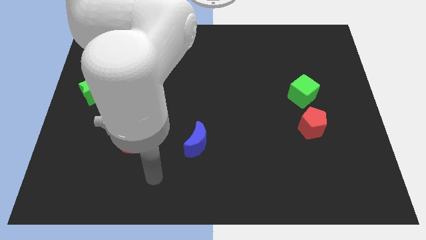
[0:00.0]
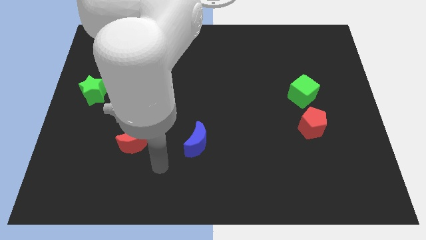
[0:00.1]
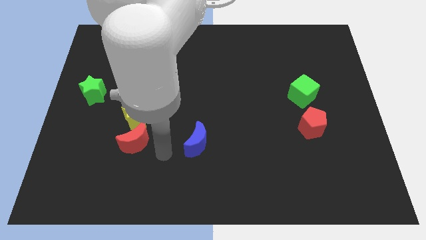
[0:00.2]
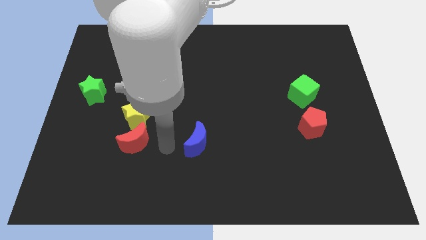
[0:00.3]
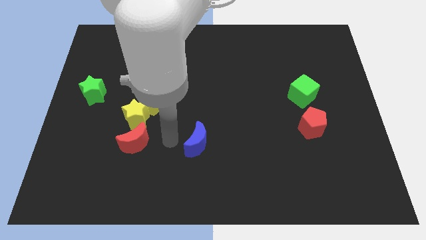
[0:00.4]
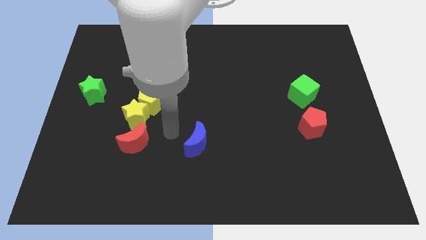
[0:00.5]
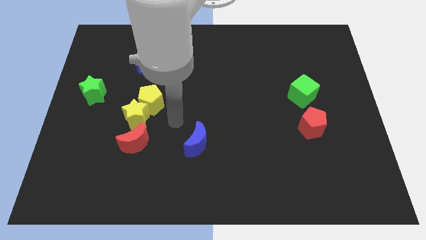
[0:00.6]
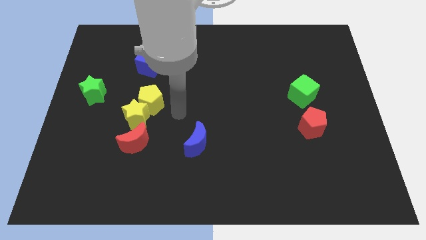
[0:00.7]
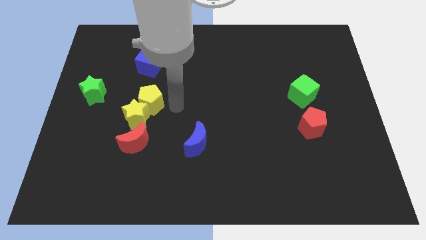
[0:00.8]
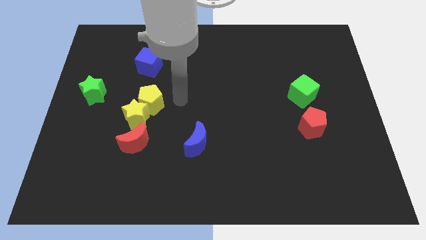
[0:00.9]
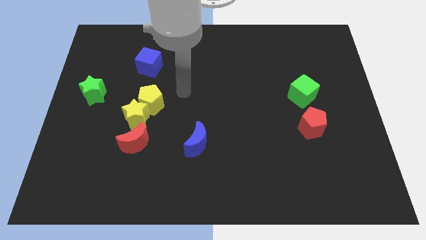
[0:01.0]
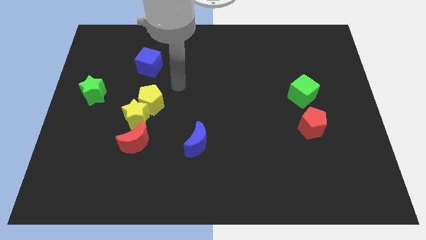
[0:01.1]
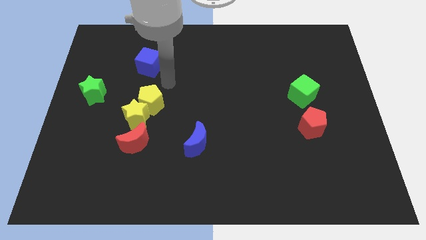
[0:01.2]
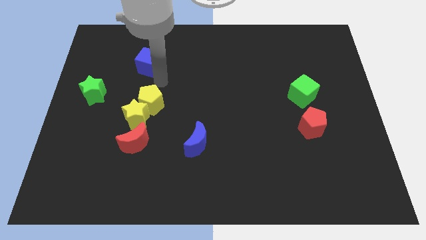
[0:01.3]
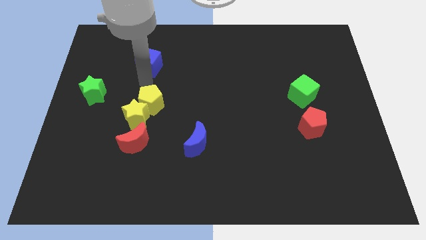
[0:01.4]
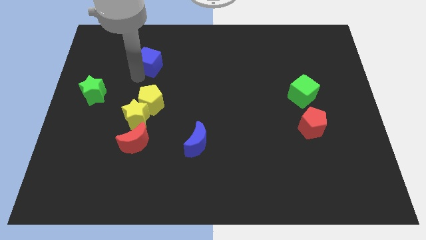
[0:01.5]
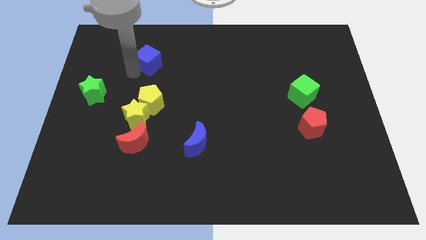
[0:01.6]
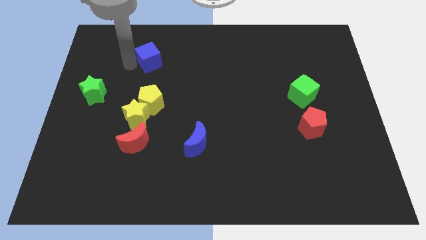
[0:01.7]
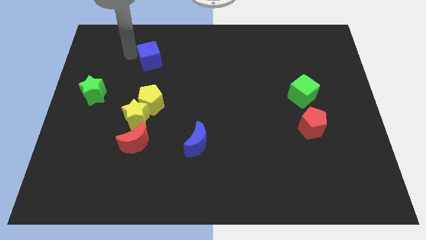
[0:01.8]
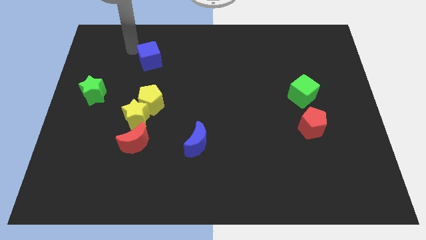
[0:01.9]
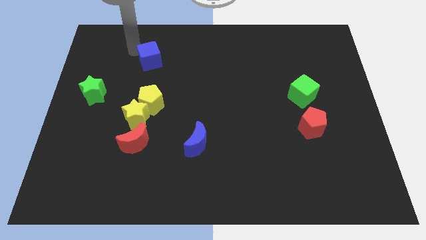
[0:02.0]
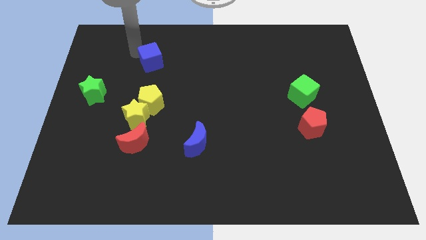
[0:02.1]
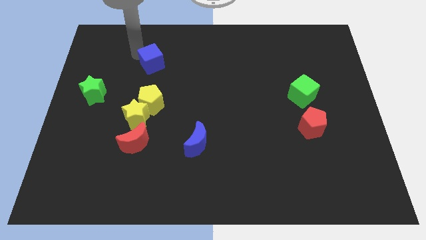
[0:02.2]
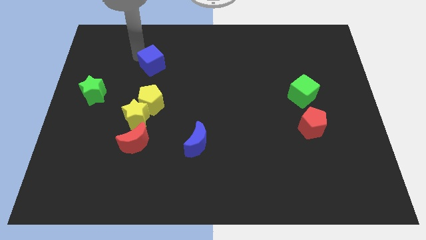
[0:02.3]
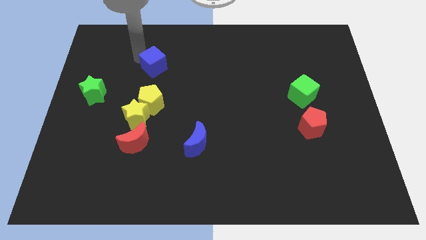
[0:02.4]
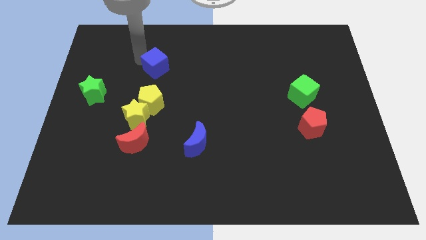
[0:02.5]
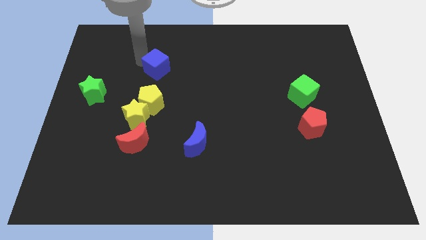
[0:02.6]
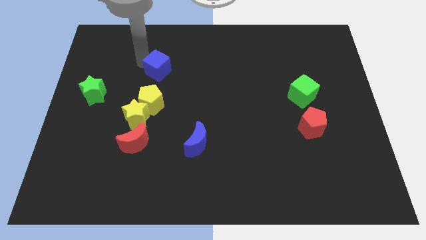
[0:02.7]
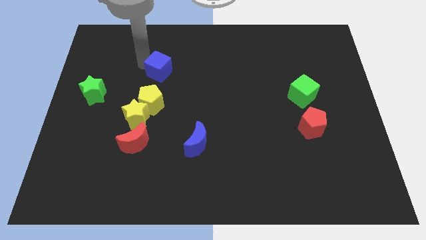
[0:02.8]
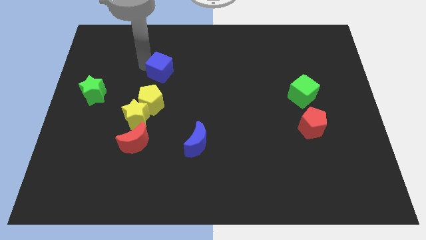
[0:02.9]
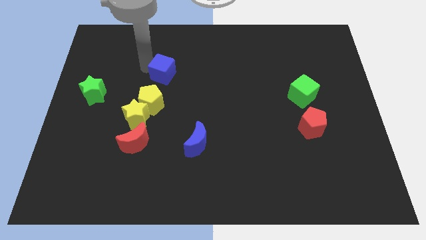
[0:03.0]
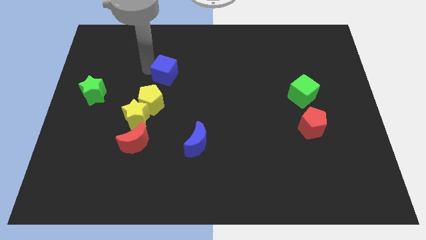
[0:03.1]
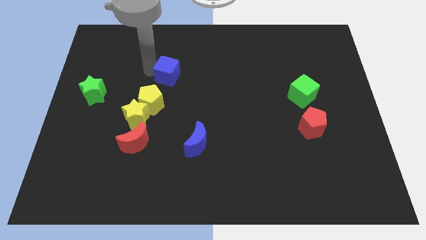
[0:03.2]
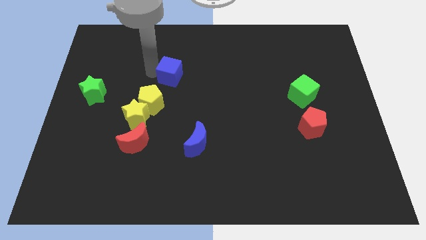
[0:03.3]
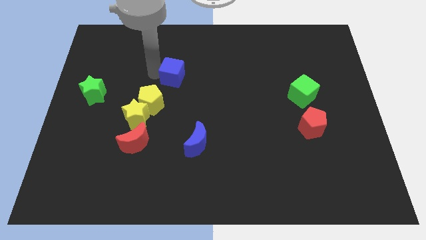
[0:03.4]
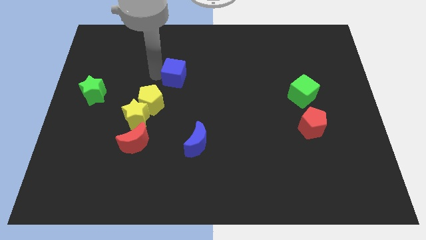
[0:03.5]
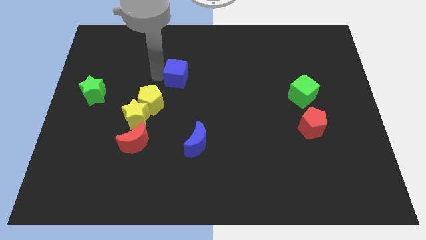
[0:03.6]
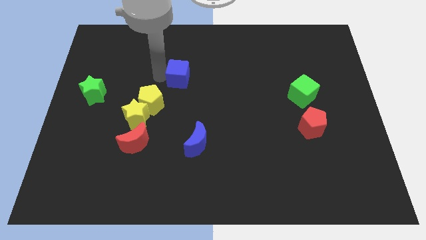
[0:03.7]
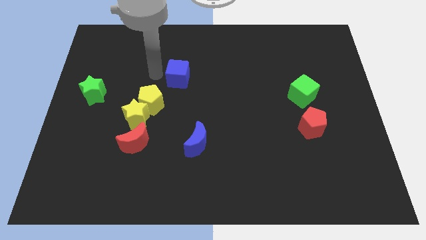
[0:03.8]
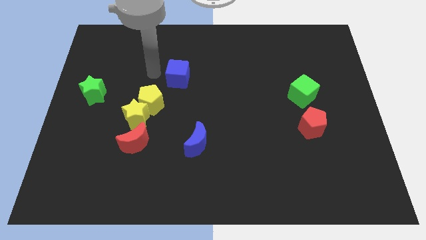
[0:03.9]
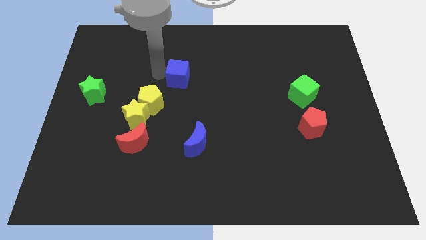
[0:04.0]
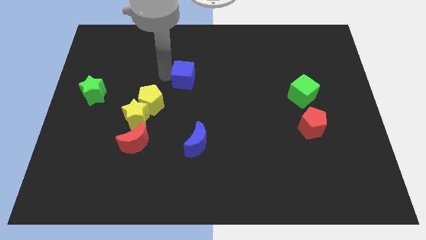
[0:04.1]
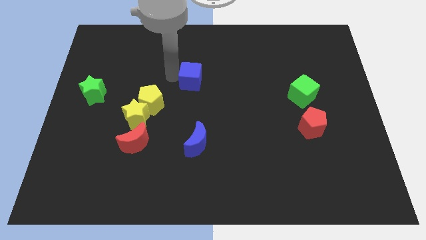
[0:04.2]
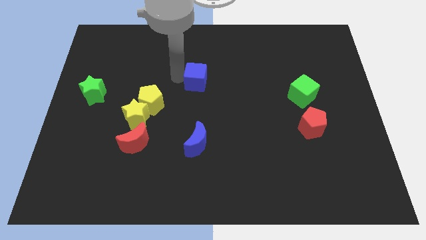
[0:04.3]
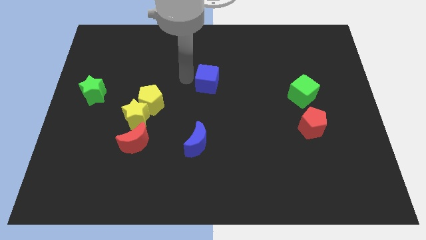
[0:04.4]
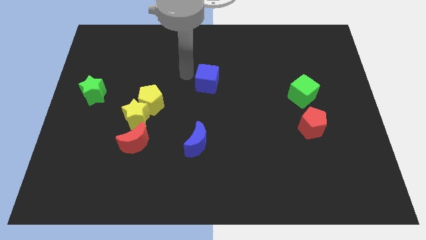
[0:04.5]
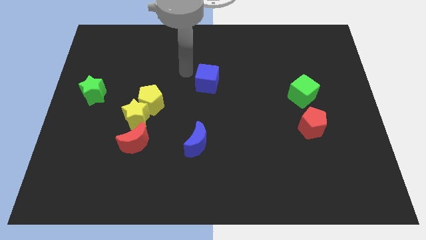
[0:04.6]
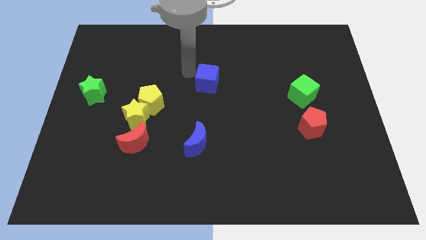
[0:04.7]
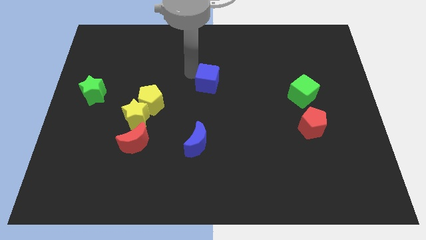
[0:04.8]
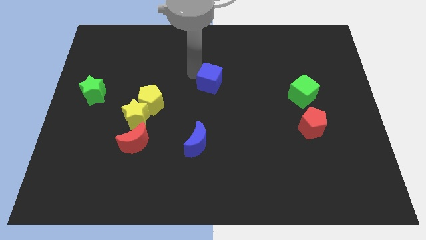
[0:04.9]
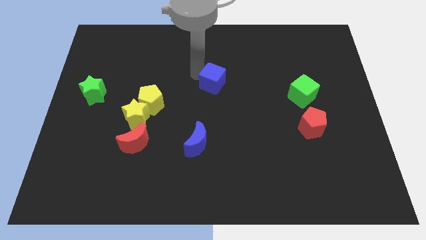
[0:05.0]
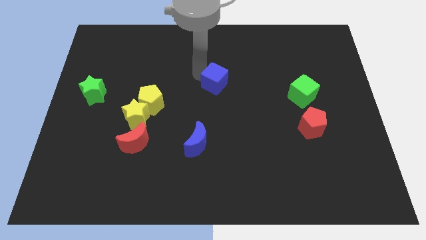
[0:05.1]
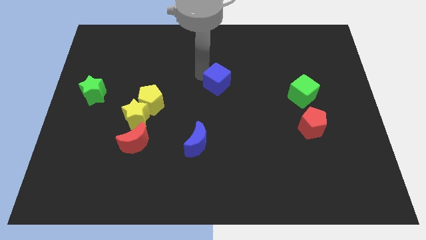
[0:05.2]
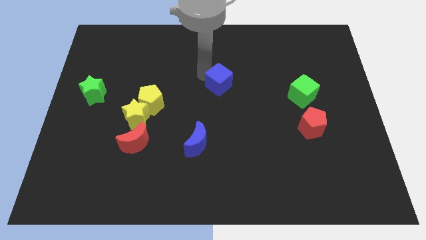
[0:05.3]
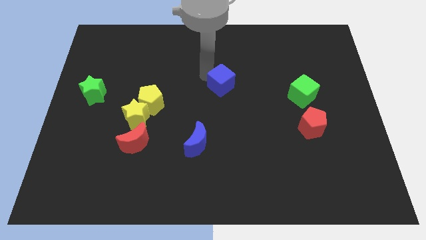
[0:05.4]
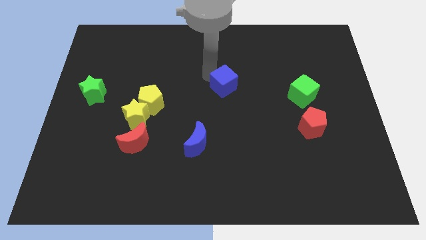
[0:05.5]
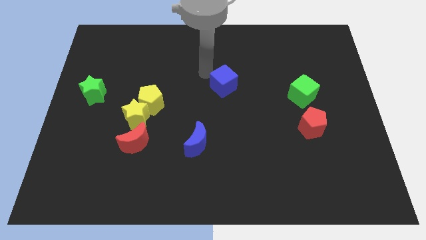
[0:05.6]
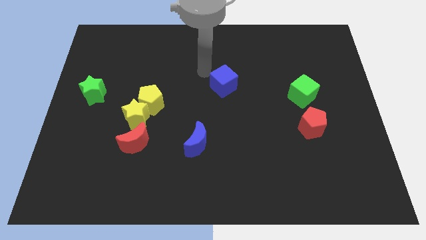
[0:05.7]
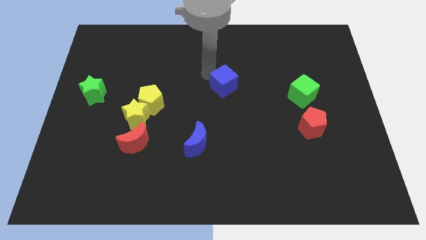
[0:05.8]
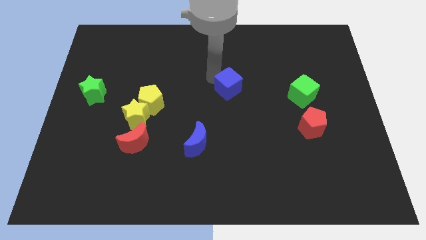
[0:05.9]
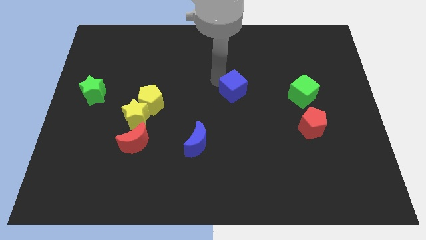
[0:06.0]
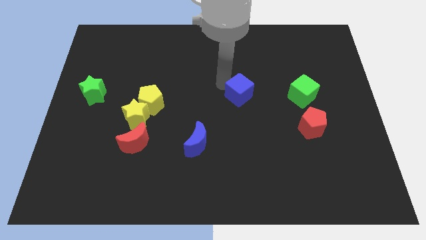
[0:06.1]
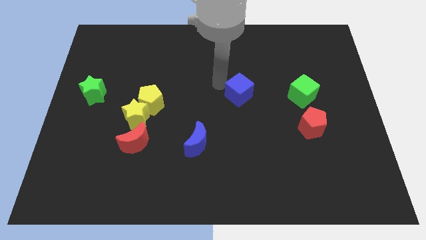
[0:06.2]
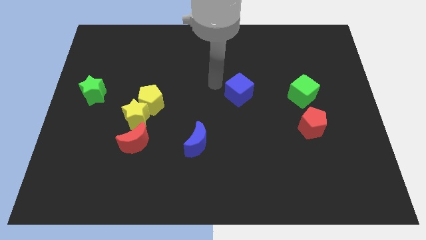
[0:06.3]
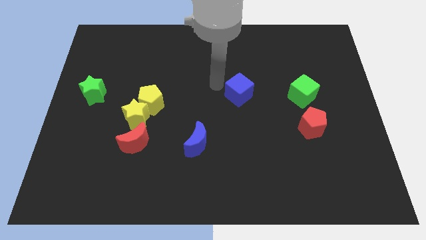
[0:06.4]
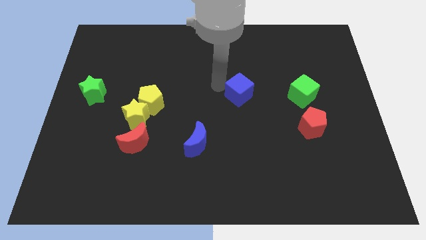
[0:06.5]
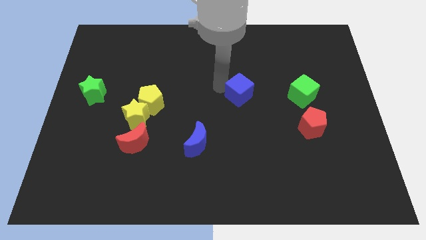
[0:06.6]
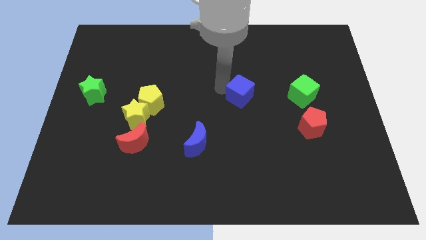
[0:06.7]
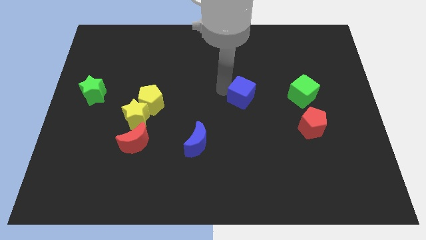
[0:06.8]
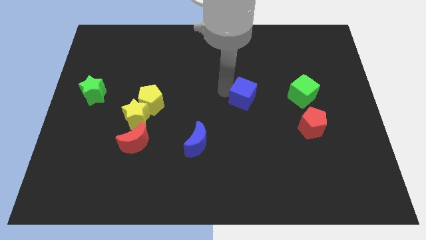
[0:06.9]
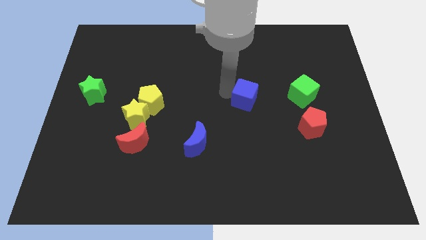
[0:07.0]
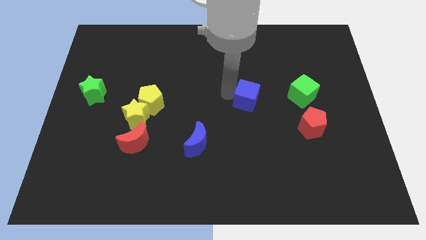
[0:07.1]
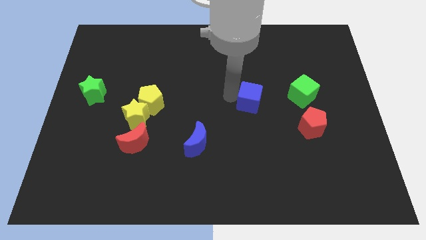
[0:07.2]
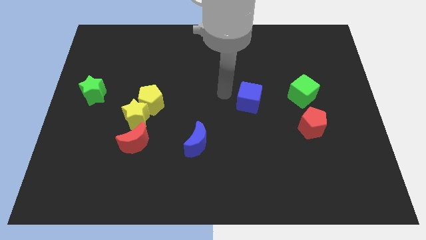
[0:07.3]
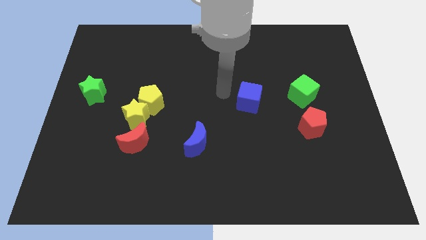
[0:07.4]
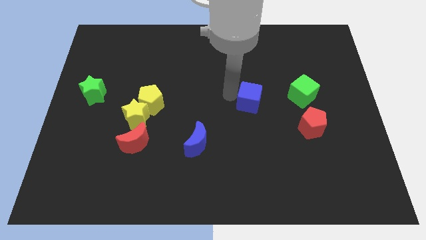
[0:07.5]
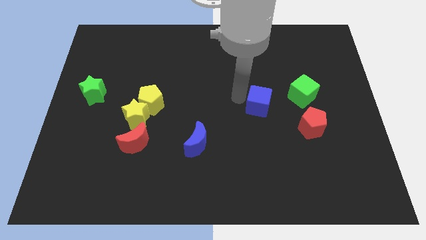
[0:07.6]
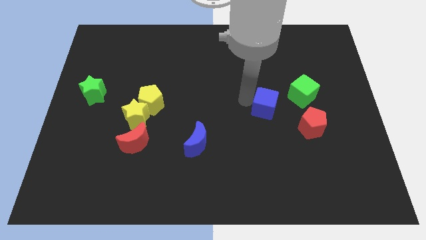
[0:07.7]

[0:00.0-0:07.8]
move the blue cube to the bottom left of the green cube

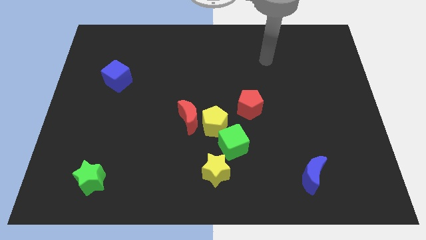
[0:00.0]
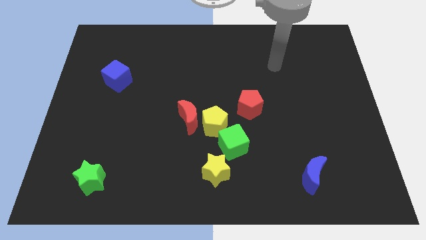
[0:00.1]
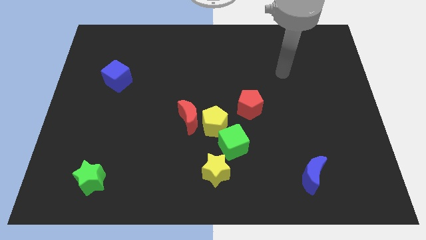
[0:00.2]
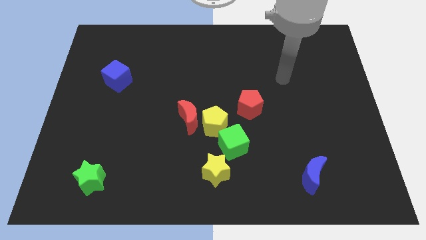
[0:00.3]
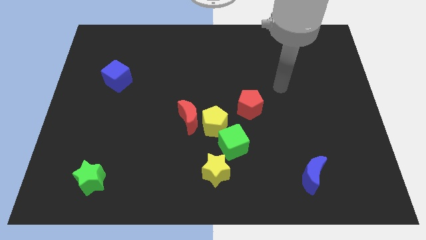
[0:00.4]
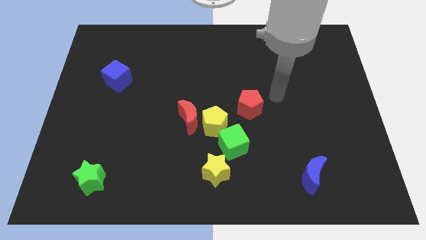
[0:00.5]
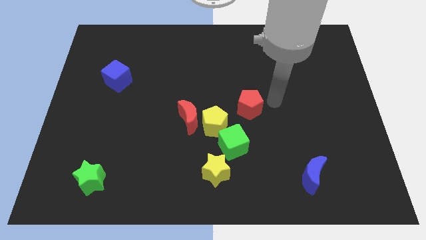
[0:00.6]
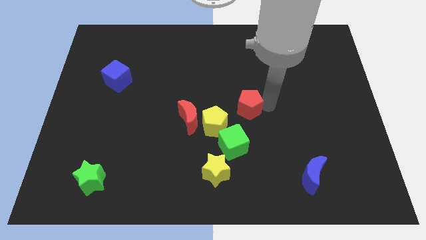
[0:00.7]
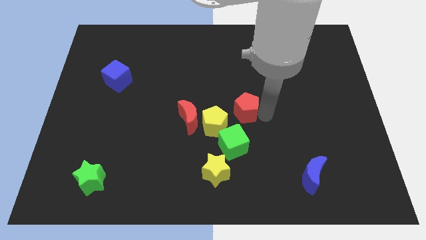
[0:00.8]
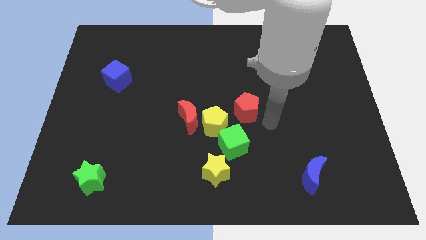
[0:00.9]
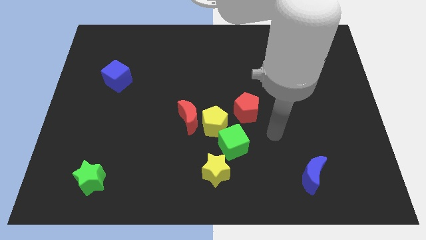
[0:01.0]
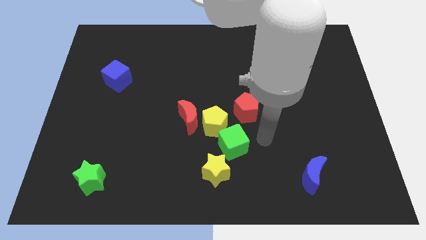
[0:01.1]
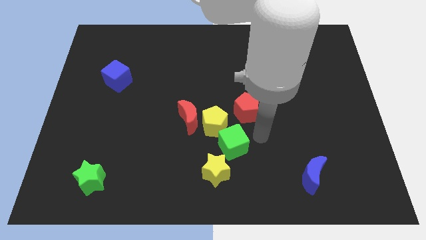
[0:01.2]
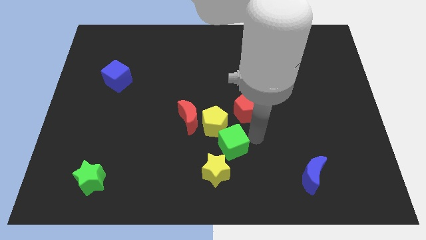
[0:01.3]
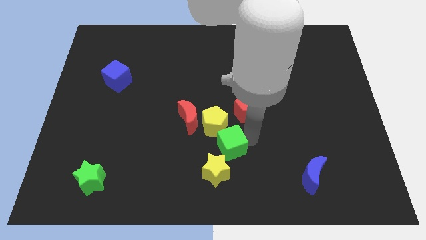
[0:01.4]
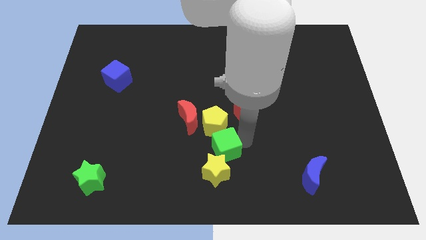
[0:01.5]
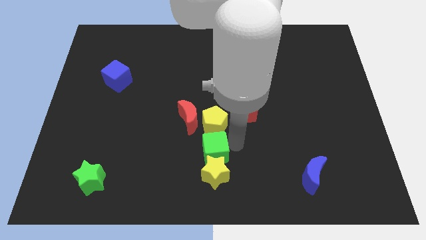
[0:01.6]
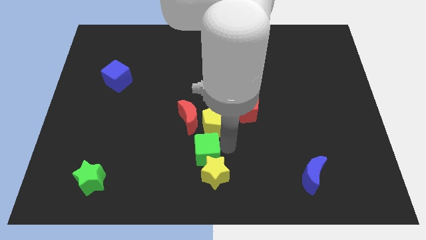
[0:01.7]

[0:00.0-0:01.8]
put the green cube to the bottom side of the red moon
